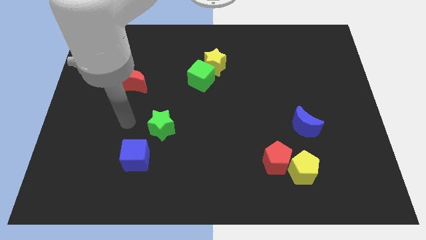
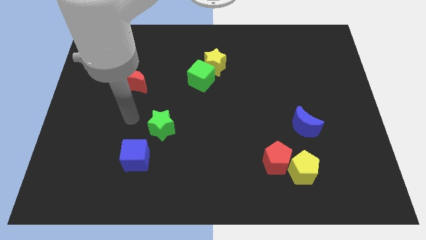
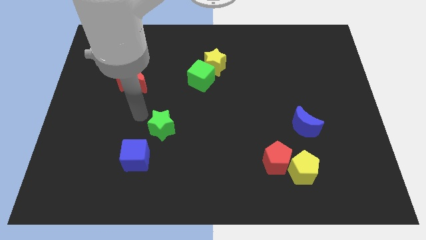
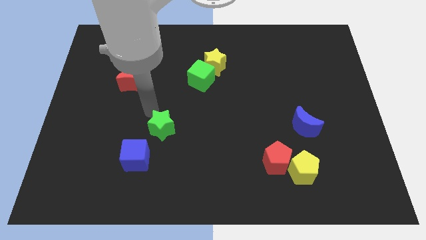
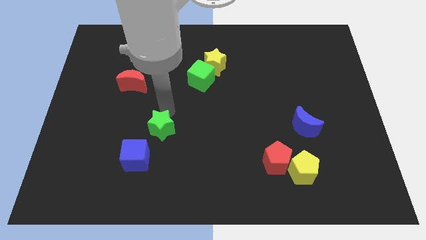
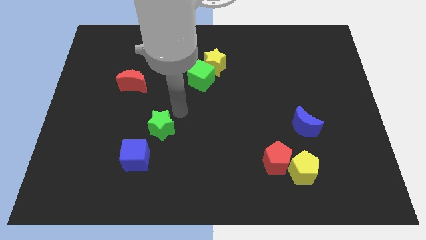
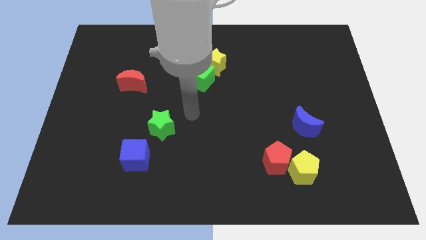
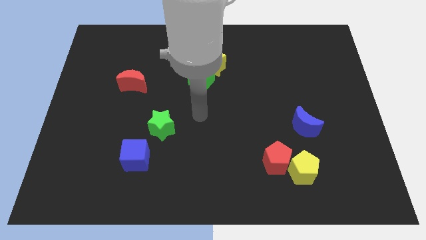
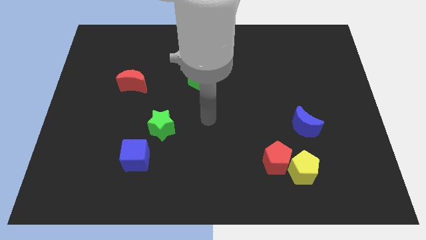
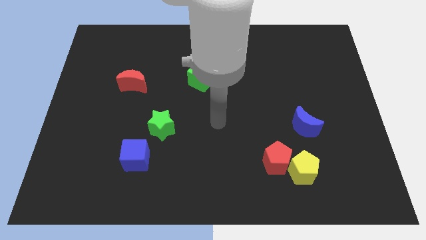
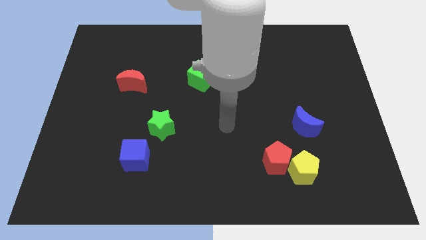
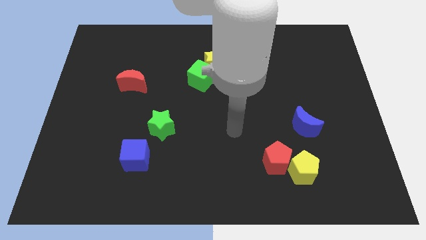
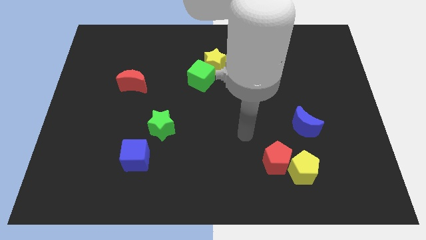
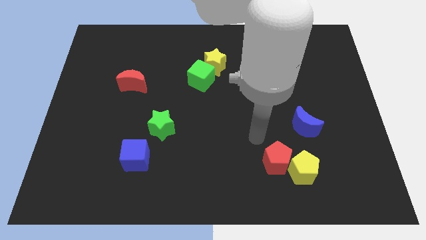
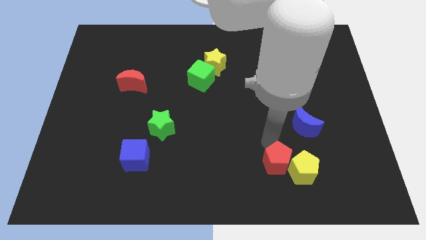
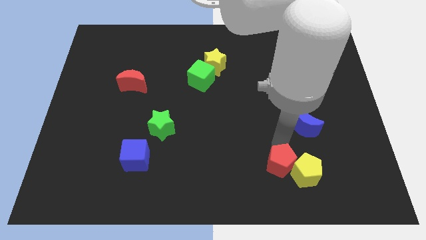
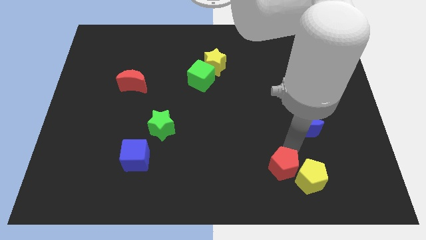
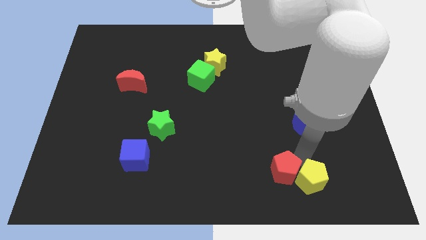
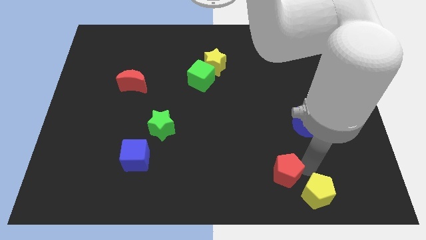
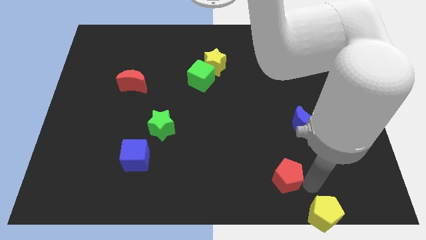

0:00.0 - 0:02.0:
separate the red pentagon from the yellow pentagon

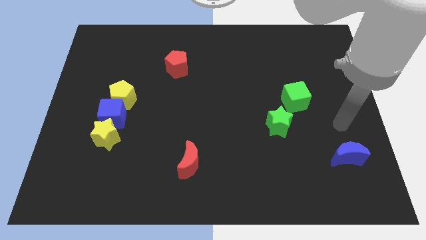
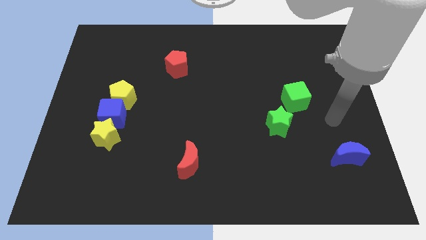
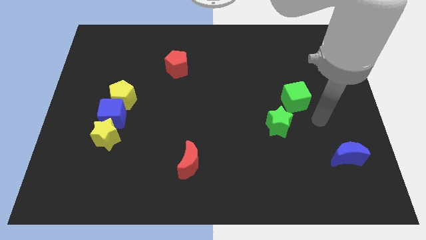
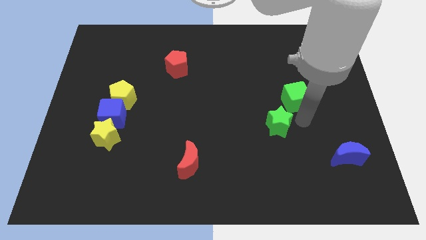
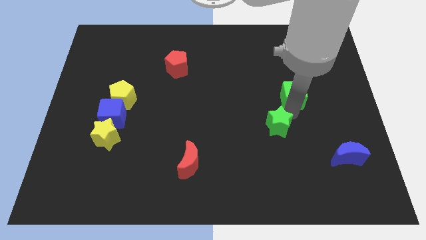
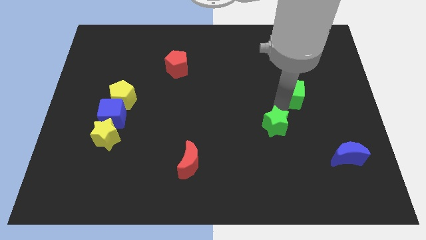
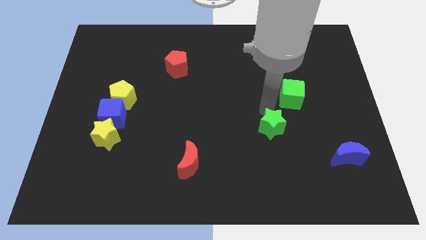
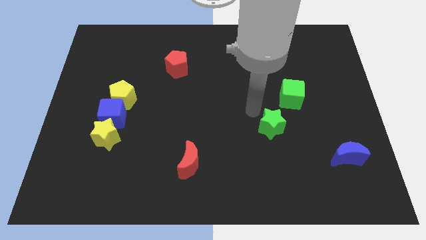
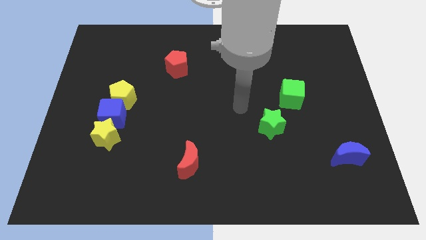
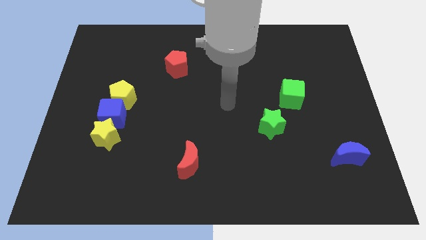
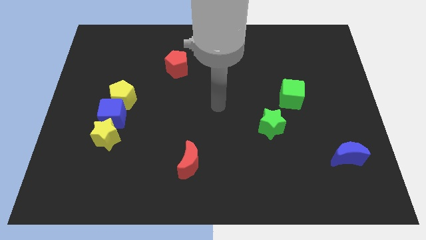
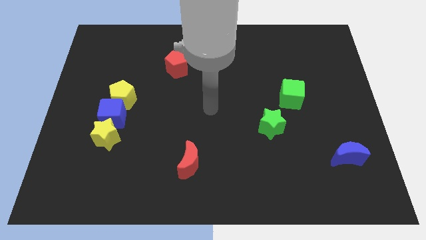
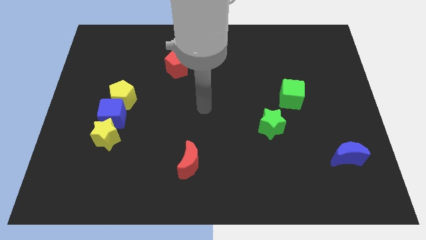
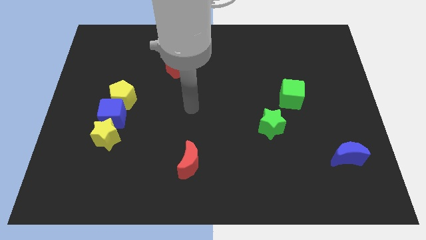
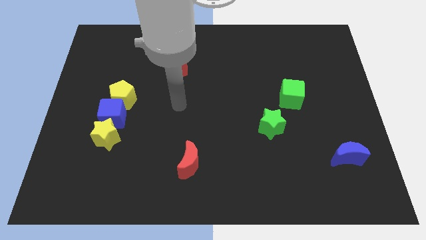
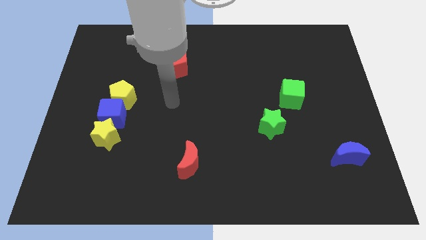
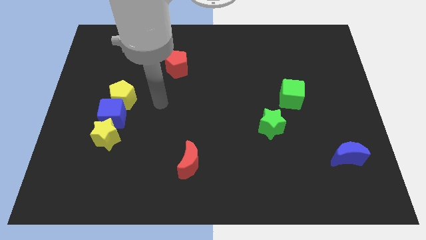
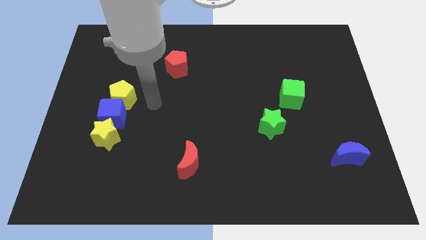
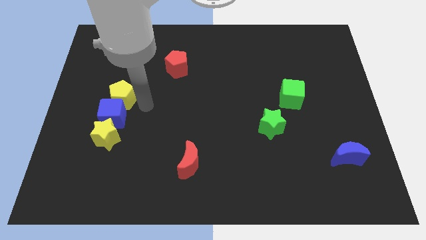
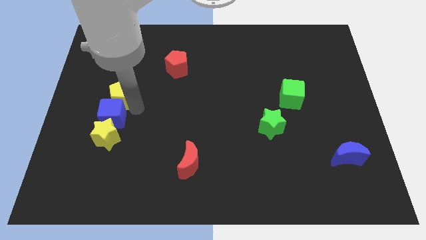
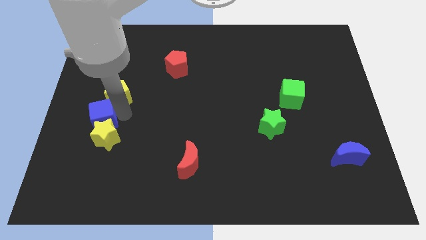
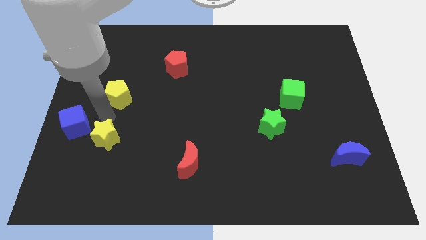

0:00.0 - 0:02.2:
pull the yellow pentagon apart from the blue cube

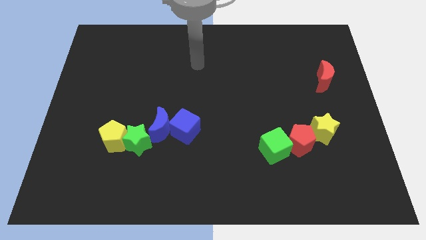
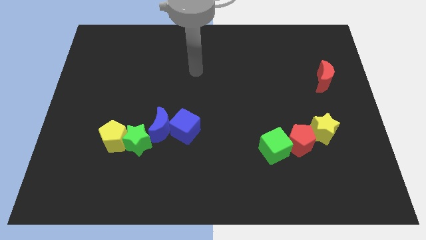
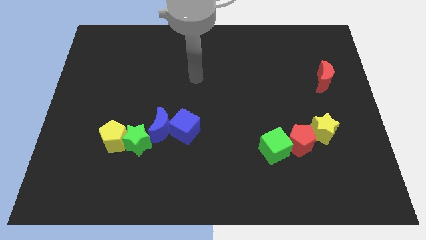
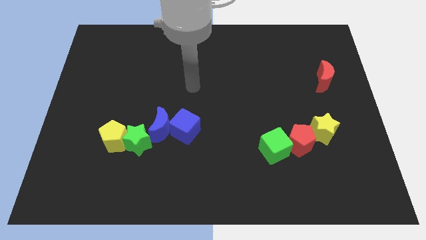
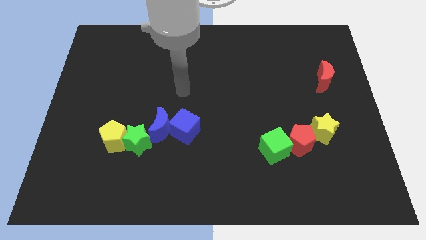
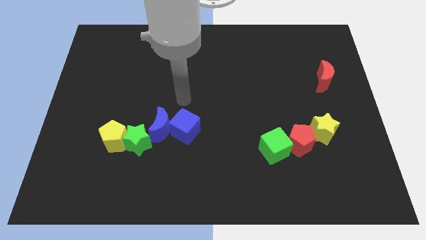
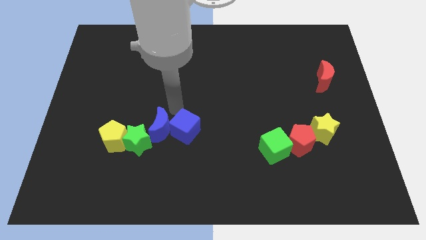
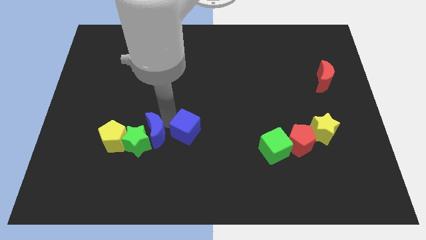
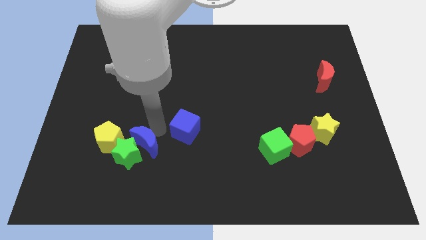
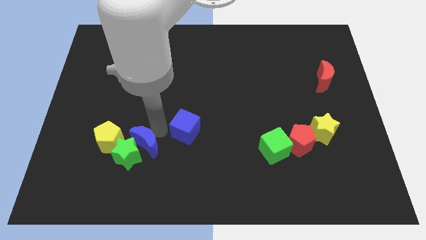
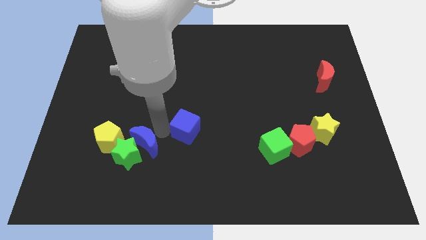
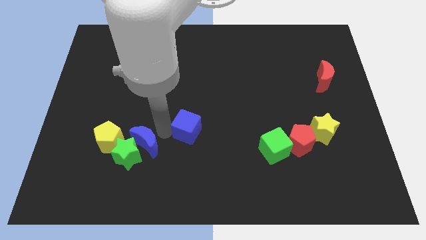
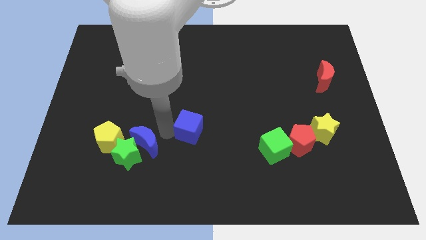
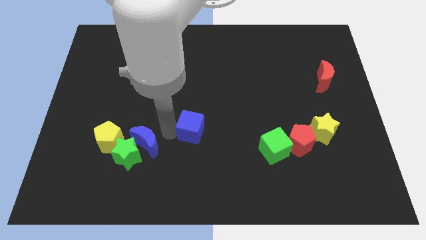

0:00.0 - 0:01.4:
pull the blue cube apart from the blue moon

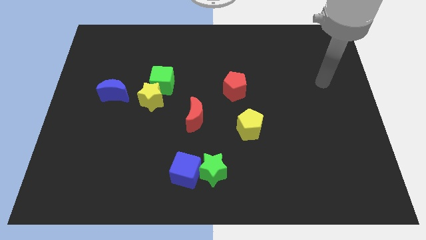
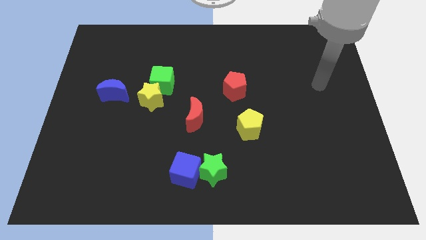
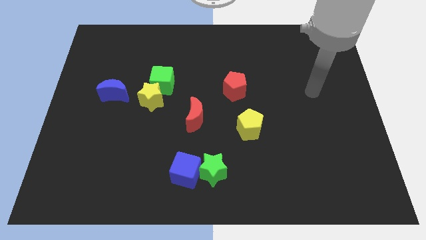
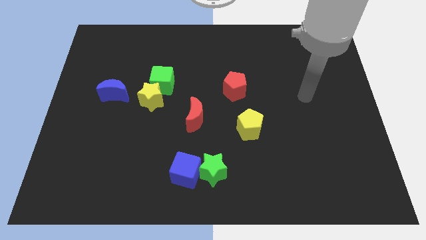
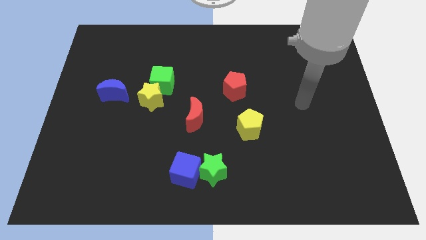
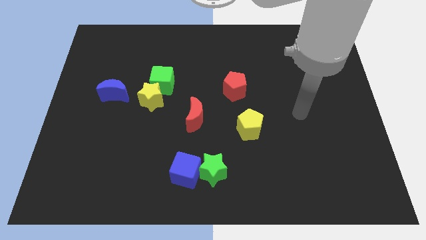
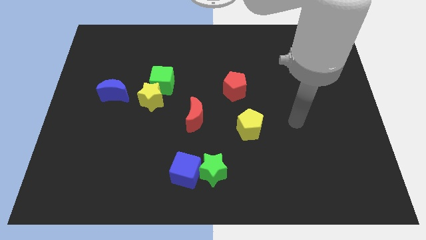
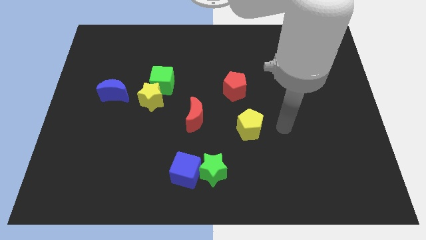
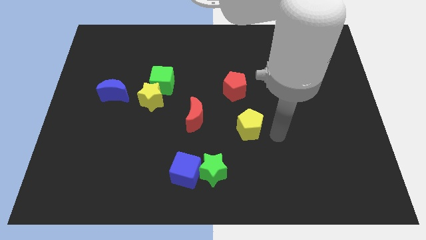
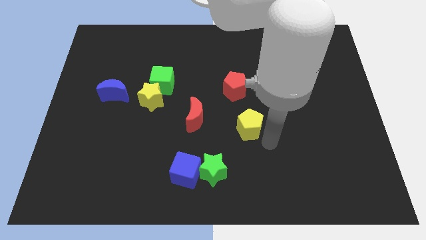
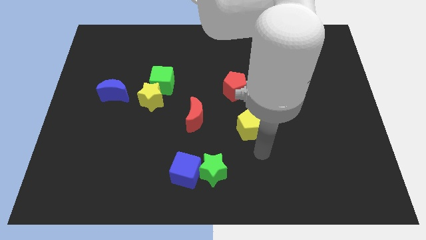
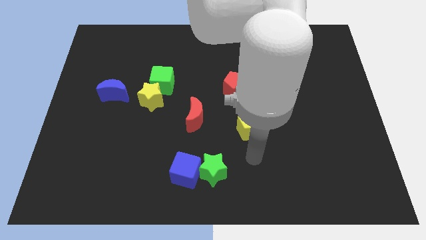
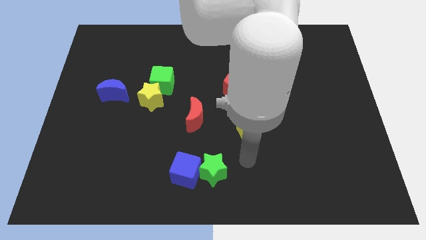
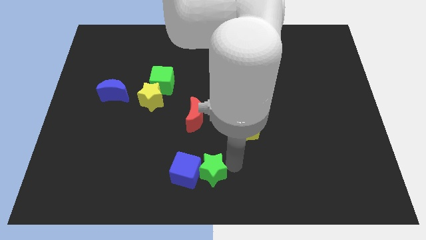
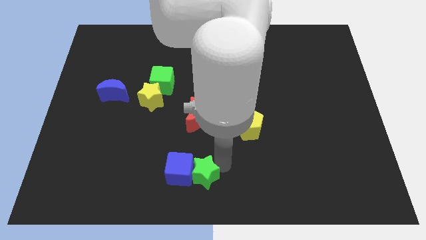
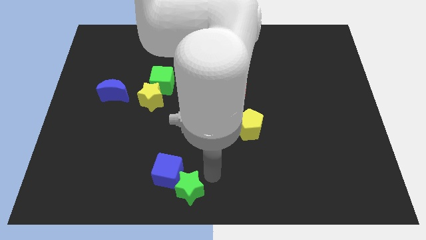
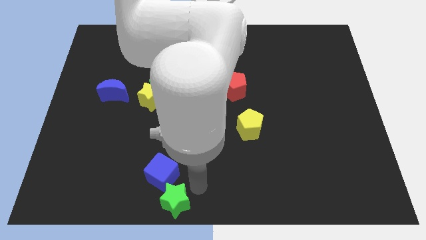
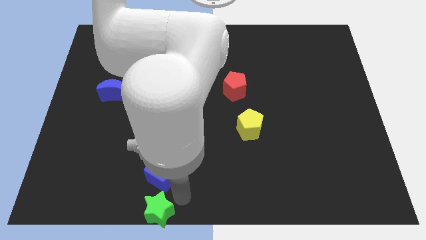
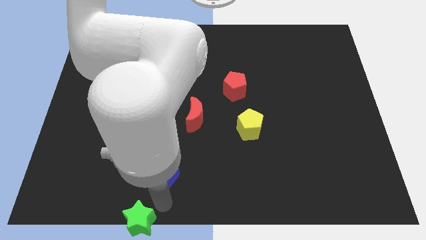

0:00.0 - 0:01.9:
separate the blue cube from the green star

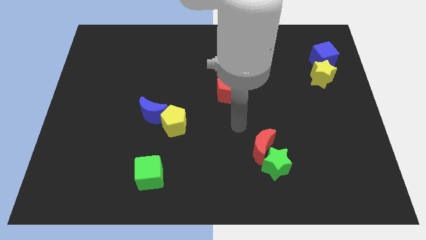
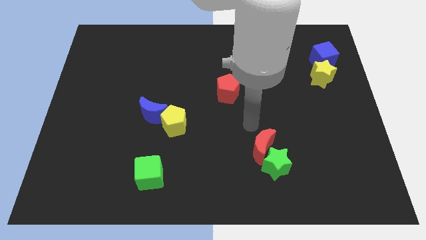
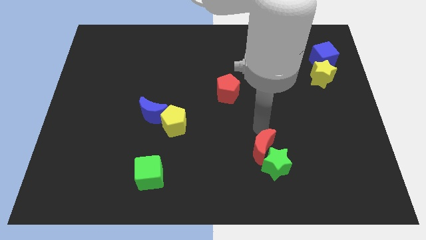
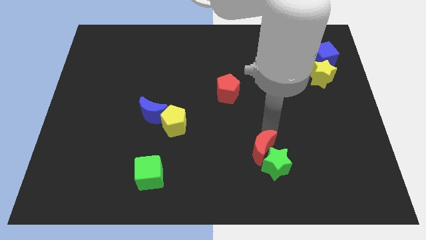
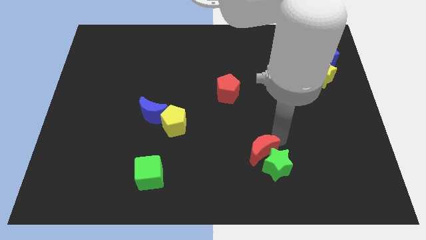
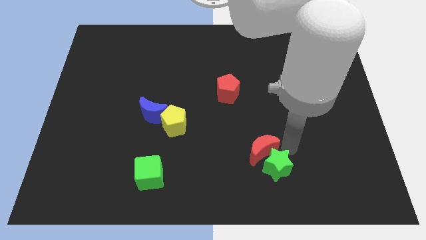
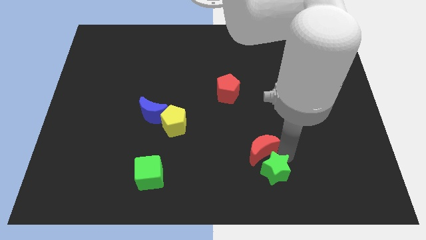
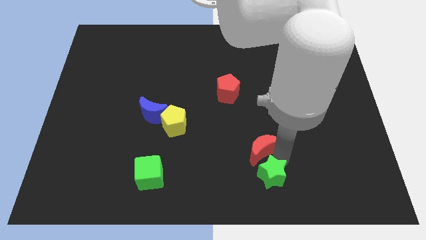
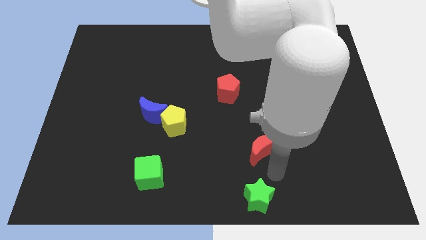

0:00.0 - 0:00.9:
separate the red moon from the green star

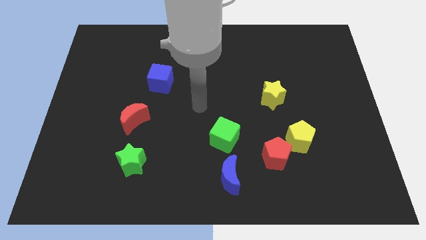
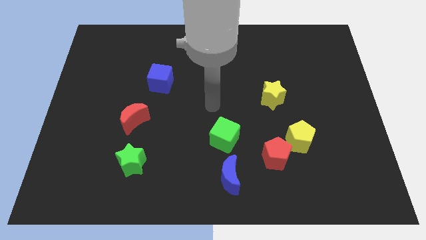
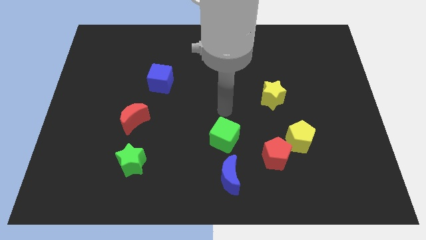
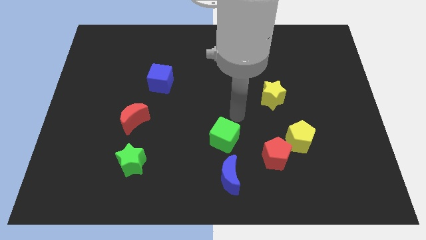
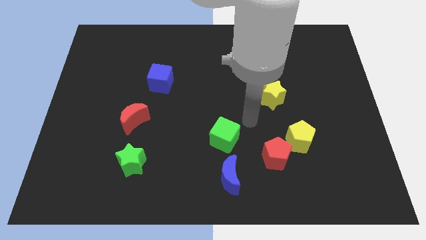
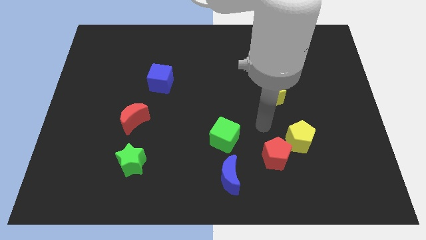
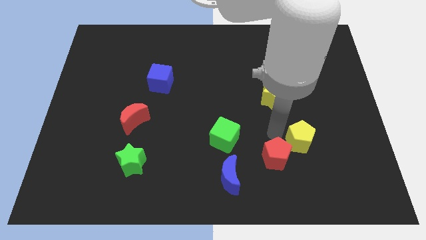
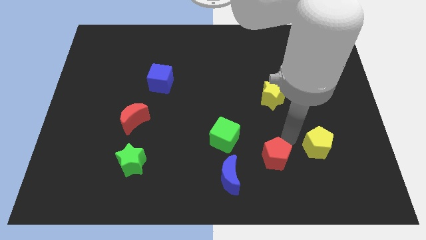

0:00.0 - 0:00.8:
move the red pentagon away from the yellow pentagon

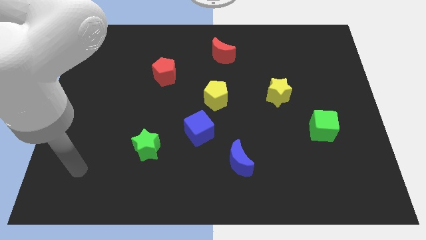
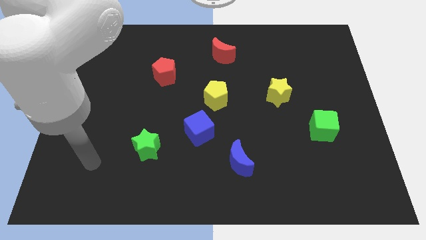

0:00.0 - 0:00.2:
separate the blue cube from the yellow pentagon

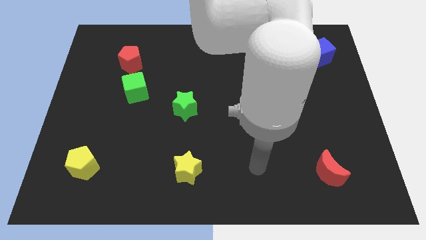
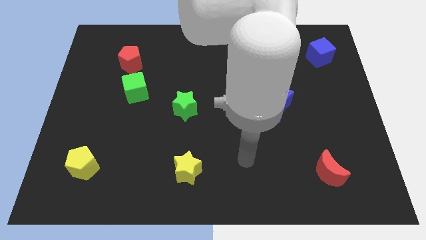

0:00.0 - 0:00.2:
move the red pentagon away from the green cube
